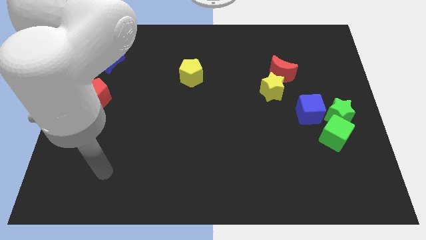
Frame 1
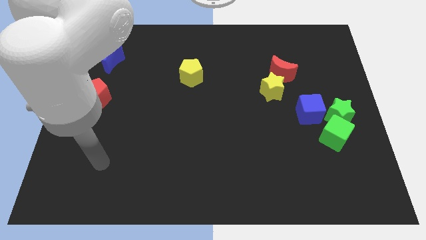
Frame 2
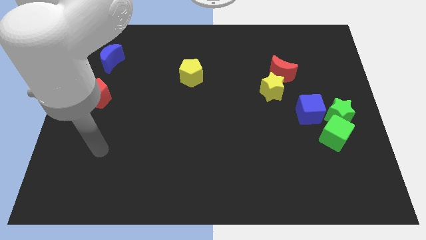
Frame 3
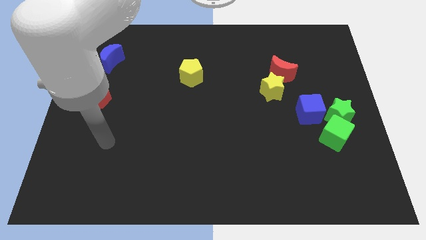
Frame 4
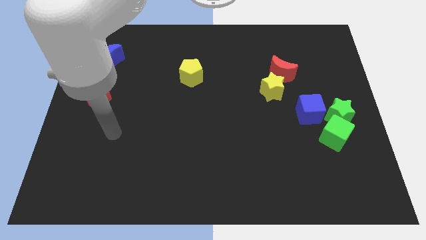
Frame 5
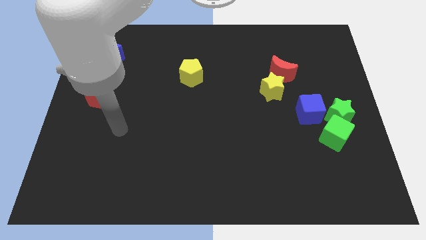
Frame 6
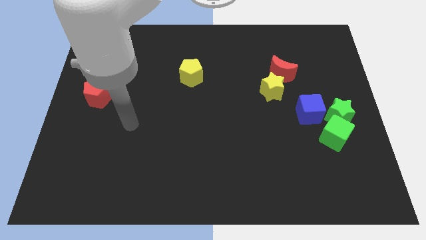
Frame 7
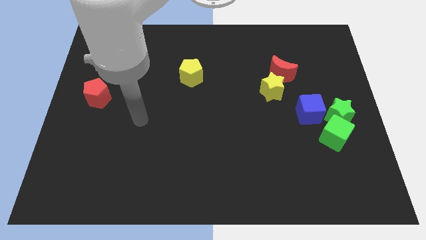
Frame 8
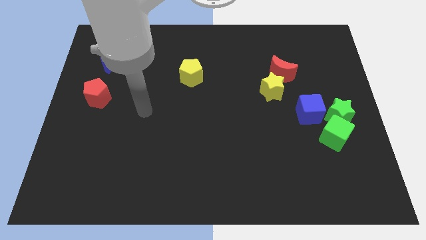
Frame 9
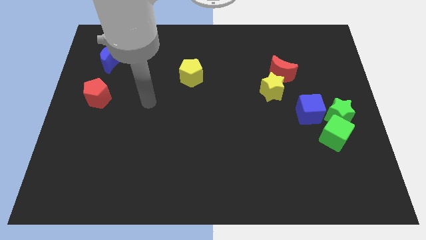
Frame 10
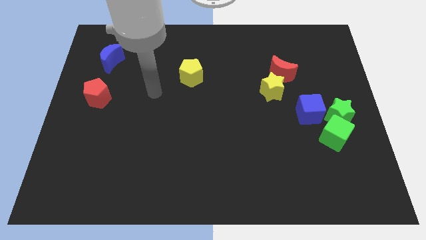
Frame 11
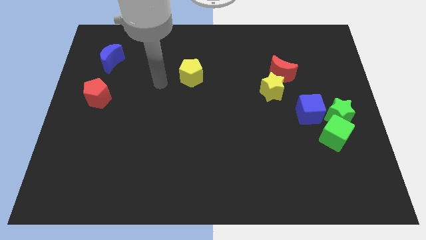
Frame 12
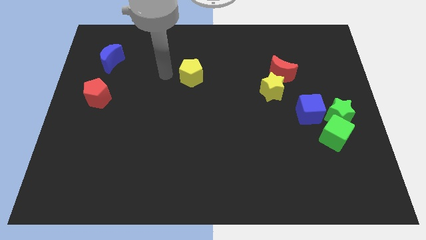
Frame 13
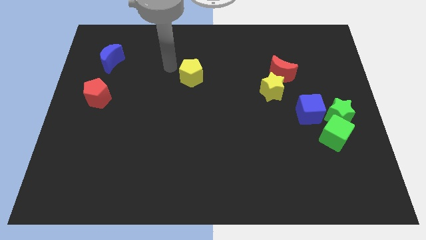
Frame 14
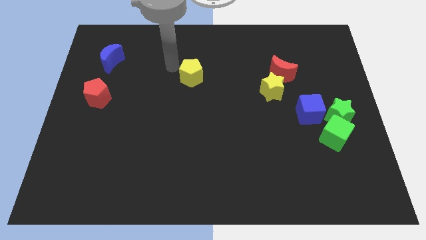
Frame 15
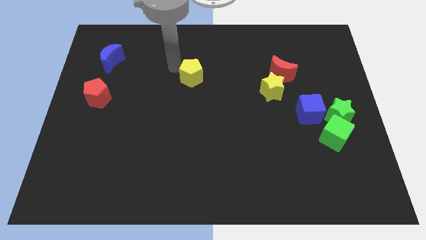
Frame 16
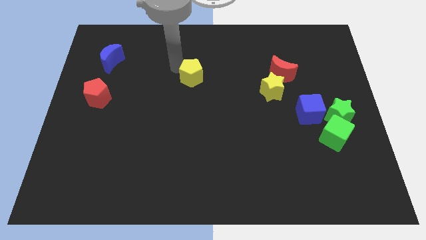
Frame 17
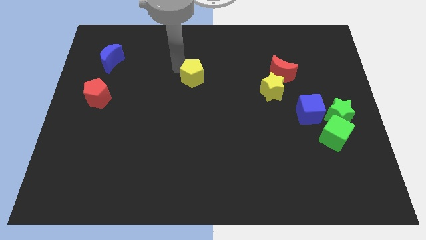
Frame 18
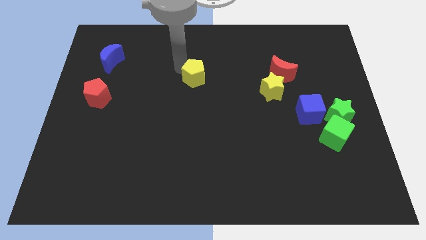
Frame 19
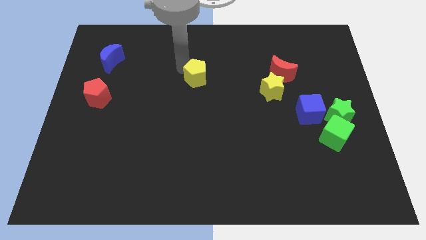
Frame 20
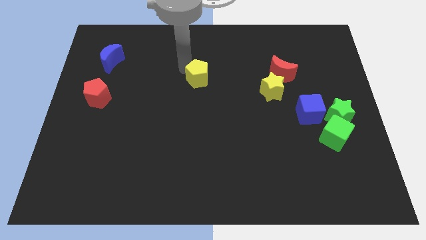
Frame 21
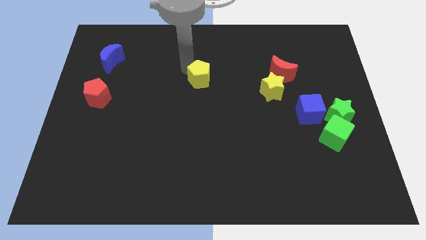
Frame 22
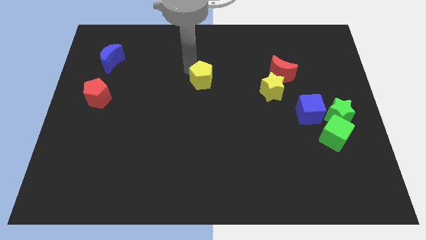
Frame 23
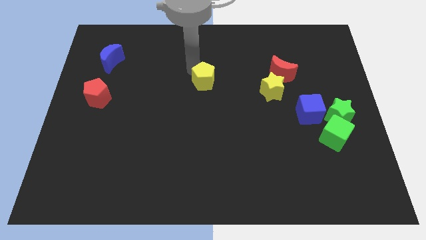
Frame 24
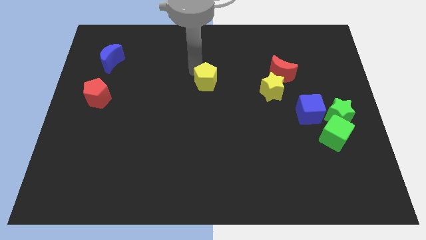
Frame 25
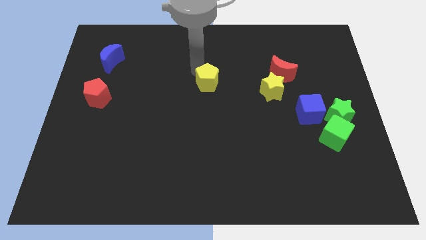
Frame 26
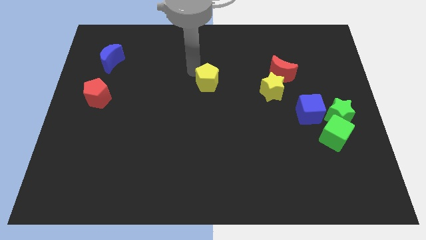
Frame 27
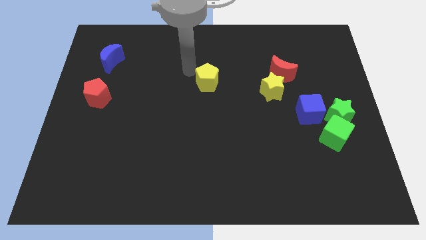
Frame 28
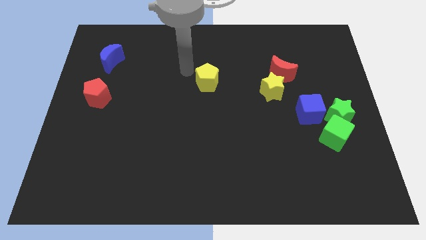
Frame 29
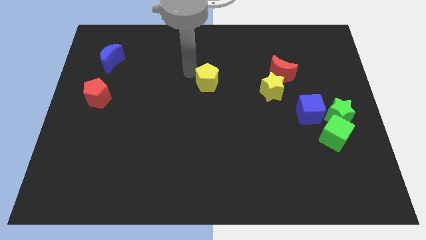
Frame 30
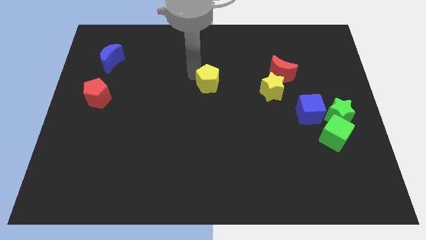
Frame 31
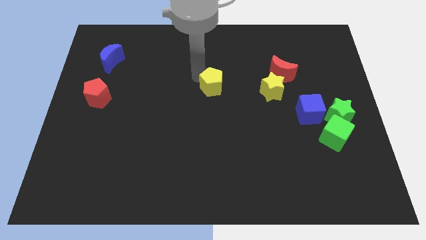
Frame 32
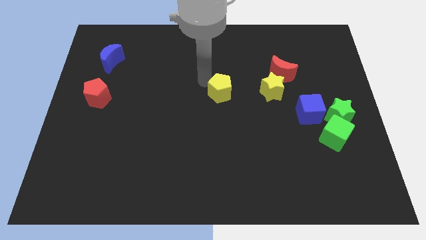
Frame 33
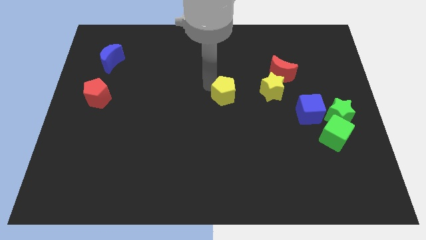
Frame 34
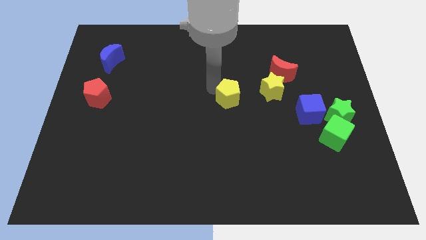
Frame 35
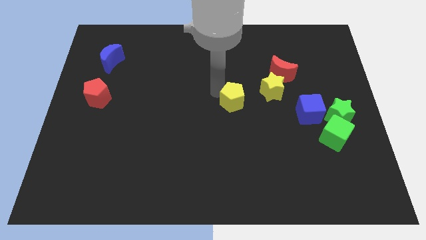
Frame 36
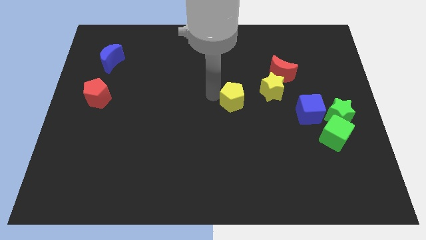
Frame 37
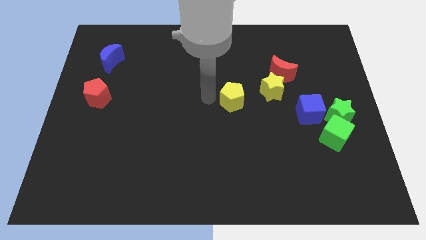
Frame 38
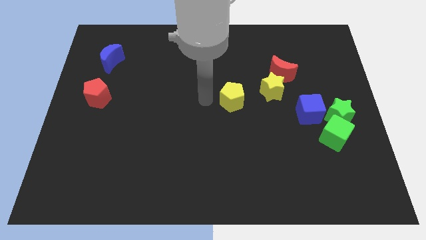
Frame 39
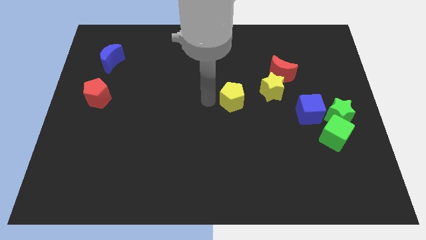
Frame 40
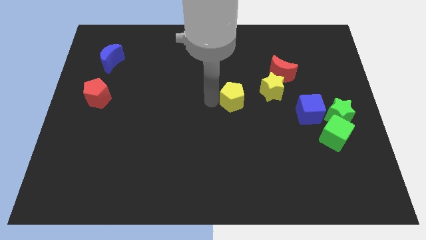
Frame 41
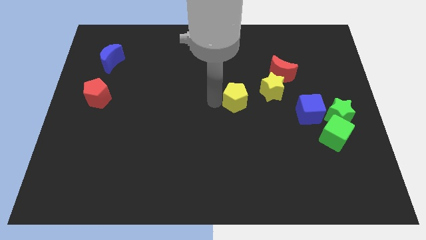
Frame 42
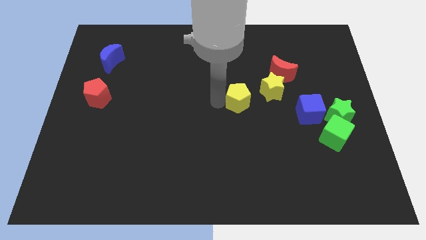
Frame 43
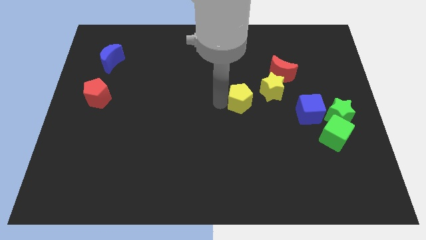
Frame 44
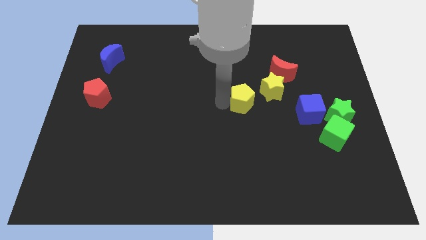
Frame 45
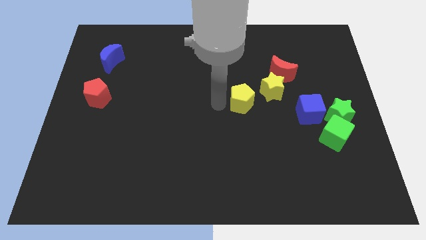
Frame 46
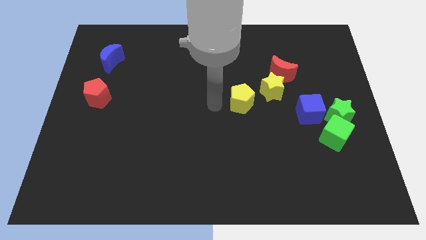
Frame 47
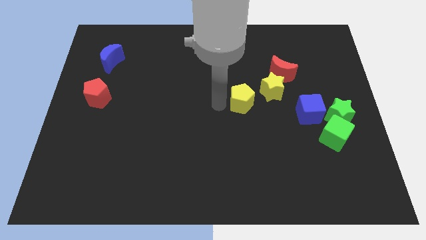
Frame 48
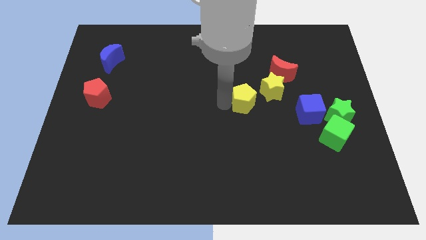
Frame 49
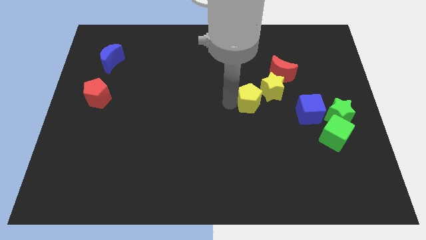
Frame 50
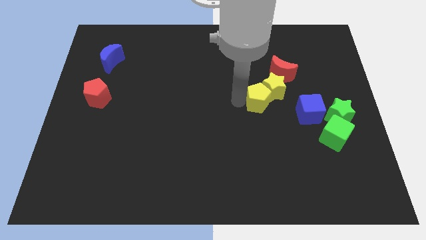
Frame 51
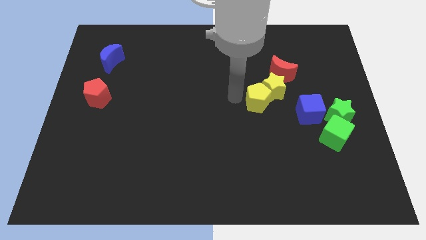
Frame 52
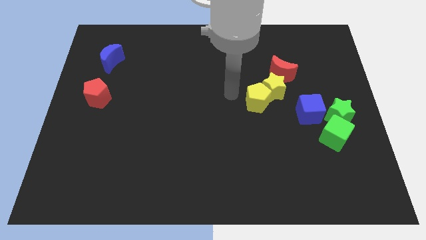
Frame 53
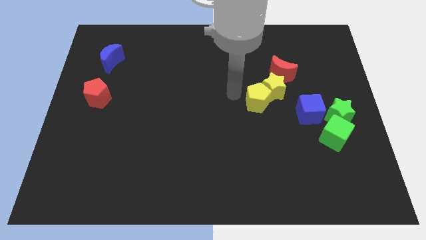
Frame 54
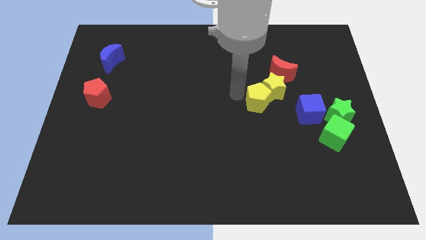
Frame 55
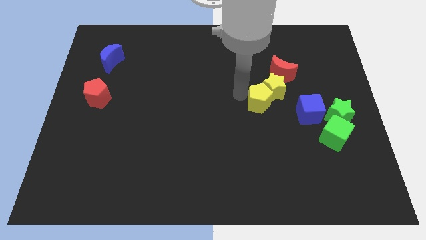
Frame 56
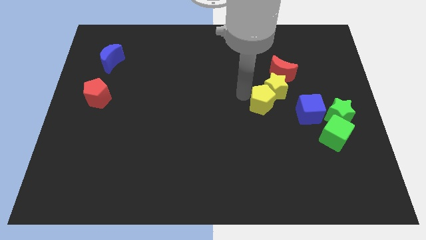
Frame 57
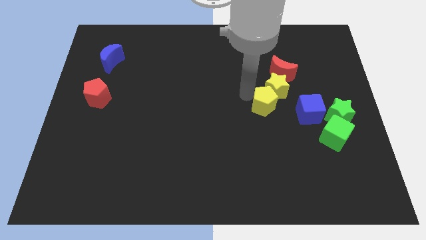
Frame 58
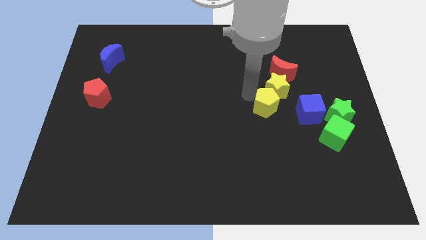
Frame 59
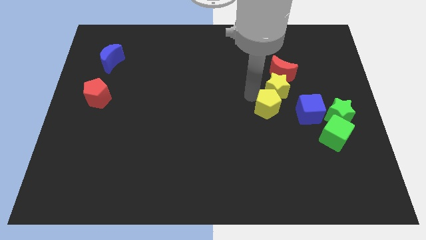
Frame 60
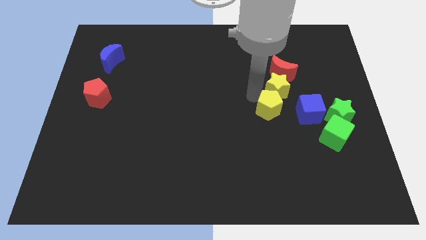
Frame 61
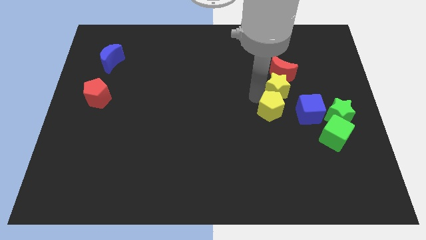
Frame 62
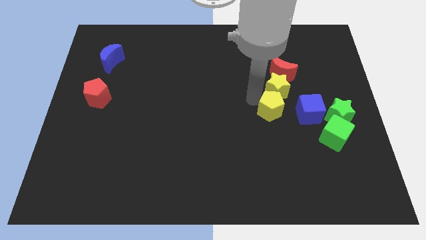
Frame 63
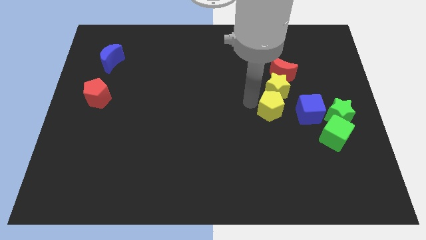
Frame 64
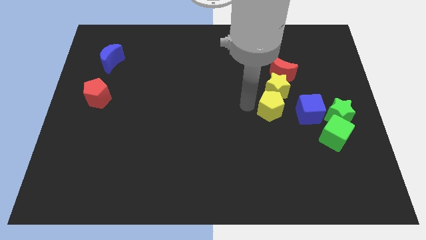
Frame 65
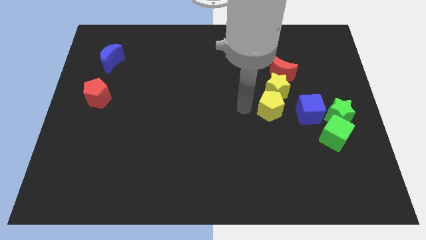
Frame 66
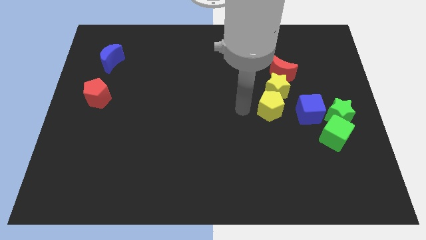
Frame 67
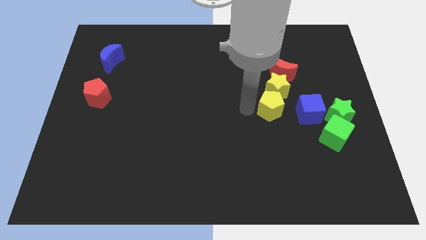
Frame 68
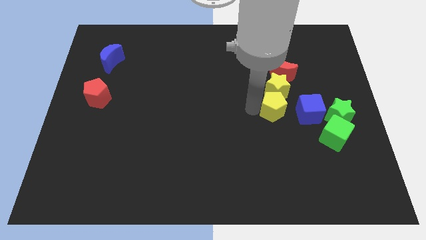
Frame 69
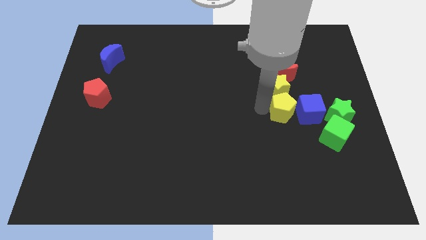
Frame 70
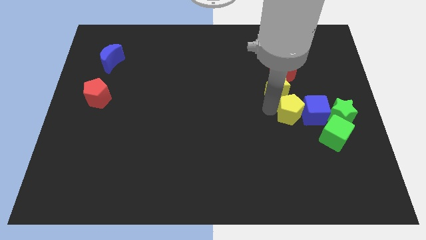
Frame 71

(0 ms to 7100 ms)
put the yellow pentagon close to the blue cube

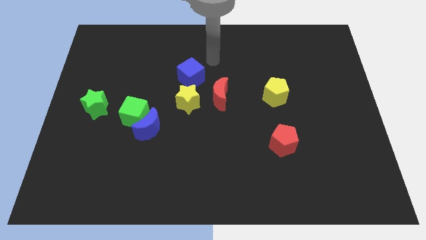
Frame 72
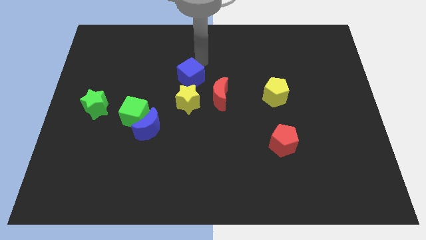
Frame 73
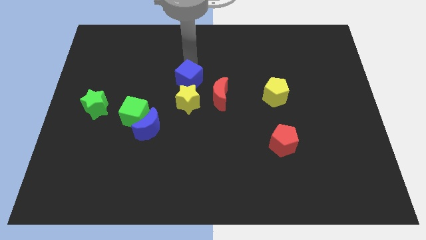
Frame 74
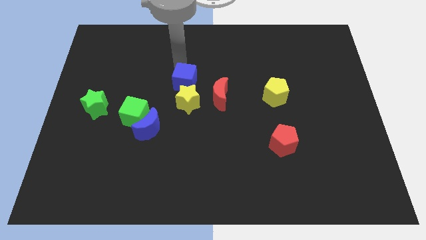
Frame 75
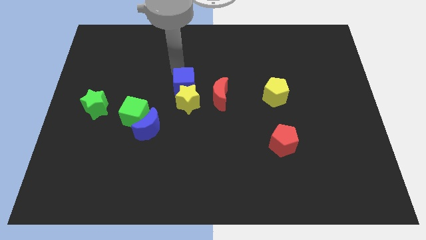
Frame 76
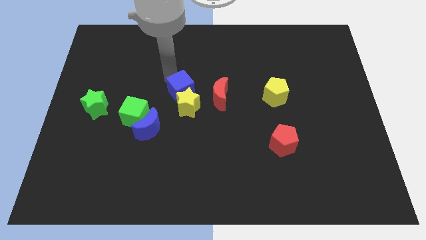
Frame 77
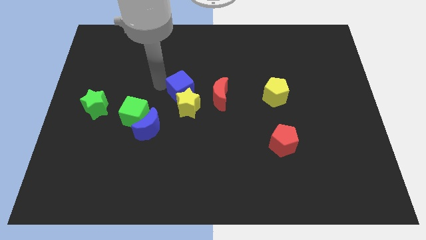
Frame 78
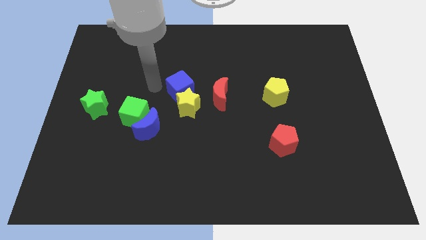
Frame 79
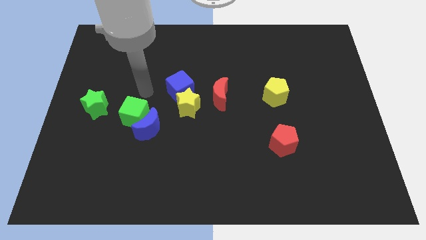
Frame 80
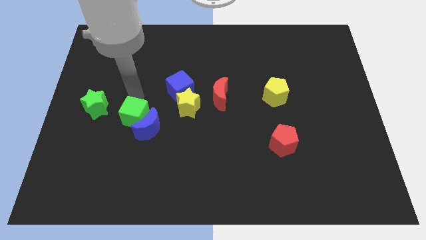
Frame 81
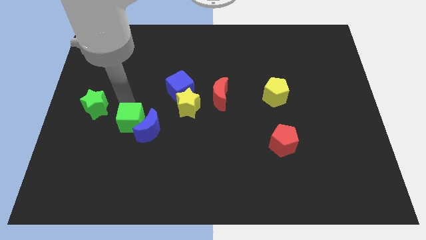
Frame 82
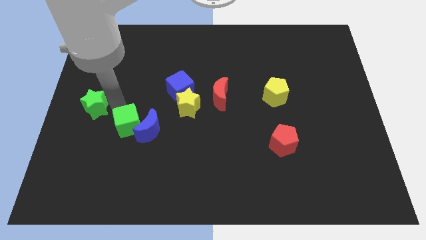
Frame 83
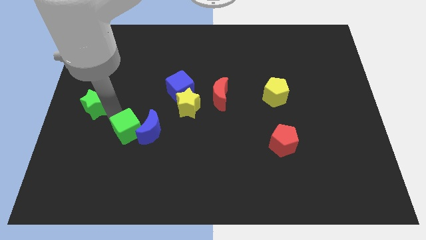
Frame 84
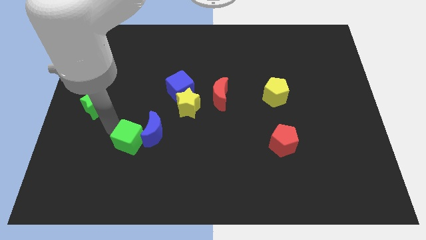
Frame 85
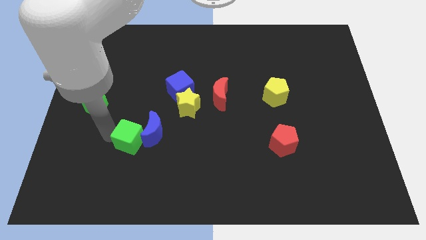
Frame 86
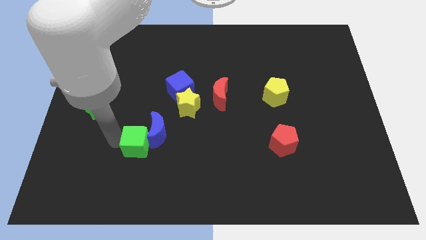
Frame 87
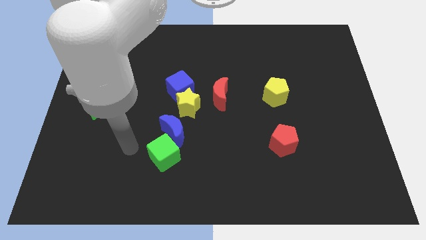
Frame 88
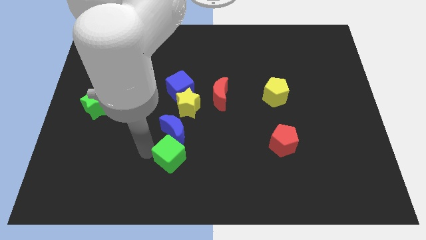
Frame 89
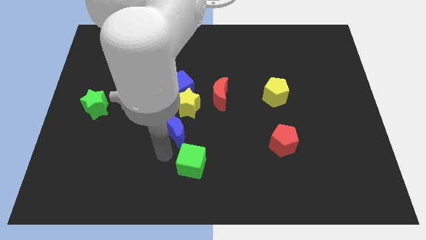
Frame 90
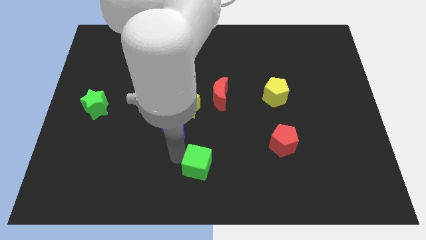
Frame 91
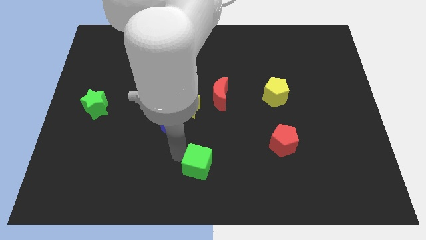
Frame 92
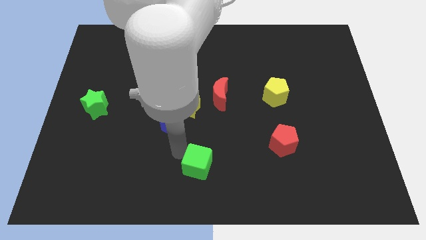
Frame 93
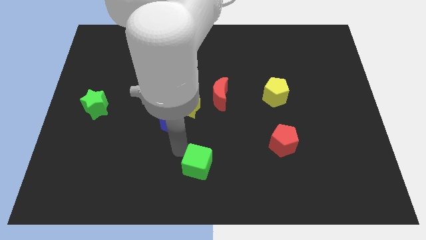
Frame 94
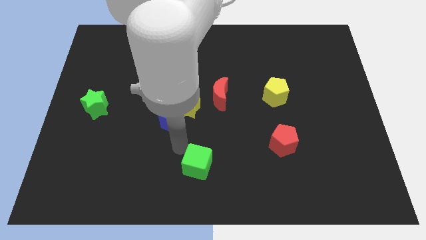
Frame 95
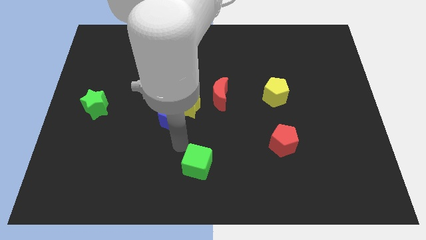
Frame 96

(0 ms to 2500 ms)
push the blue moon towards the yellow star
